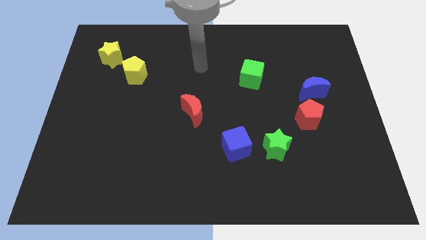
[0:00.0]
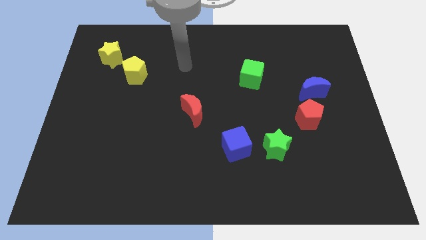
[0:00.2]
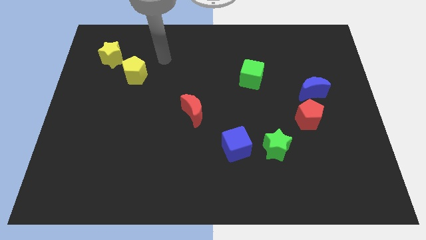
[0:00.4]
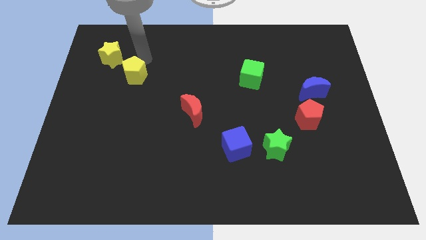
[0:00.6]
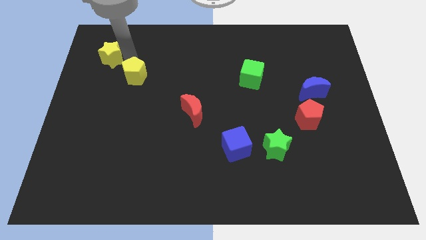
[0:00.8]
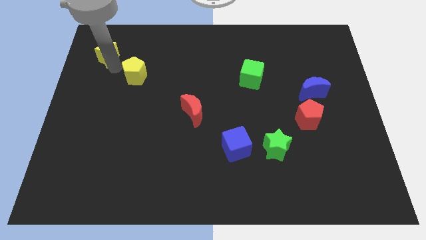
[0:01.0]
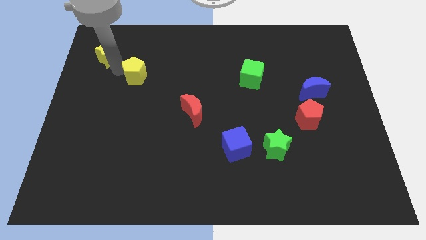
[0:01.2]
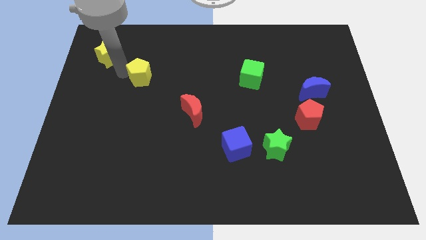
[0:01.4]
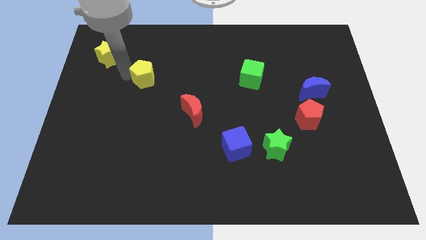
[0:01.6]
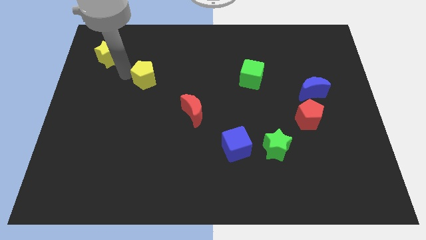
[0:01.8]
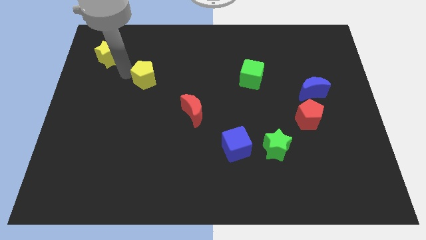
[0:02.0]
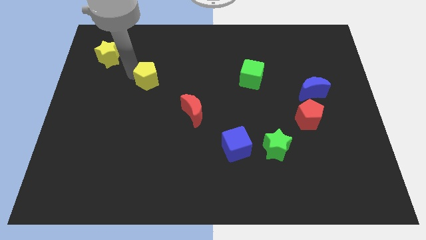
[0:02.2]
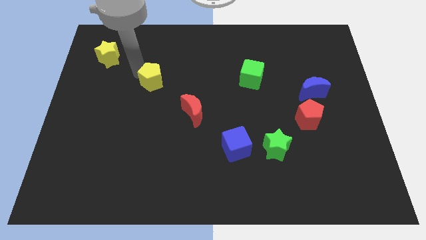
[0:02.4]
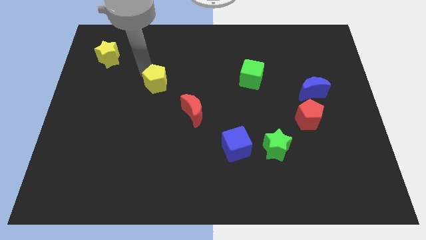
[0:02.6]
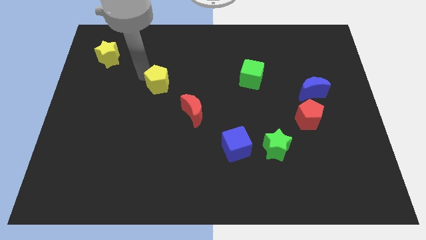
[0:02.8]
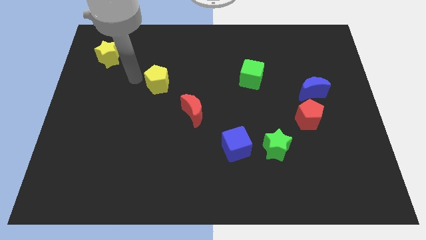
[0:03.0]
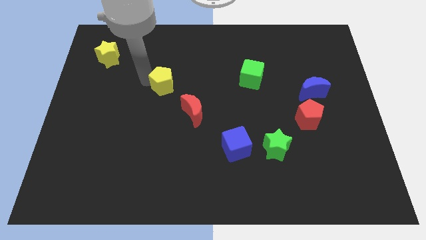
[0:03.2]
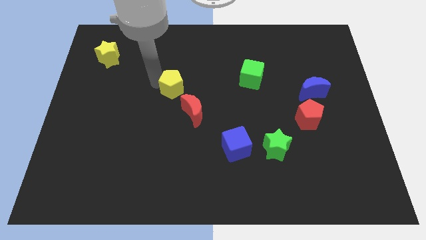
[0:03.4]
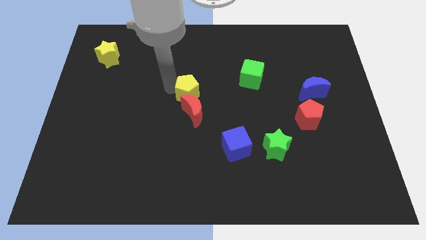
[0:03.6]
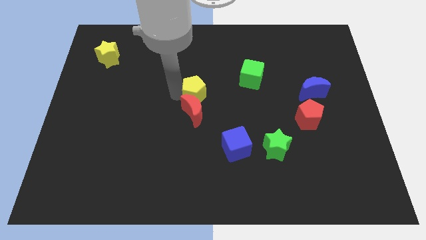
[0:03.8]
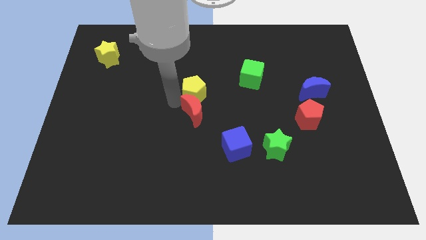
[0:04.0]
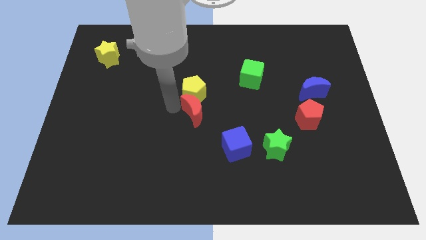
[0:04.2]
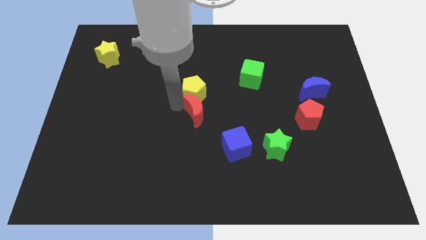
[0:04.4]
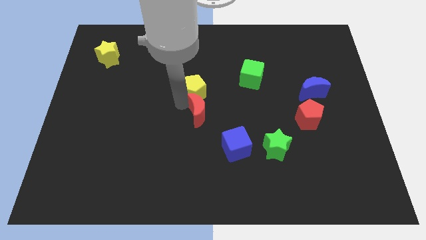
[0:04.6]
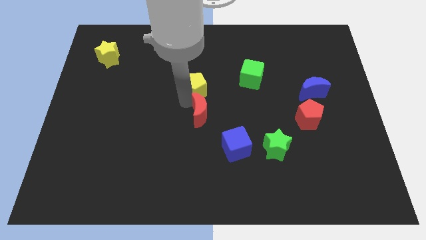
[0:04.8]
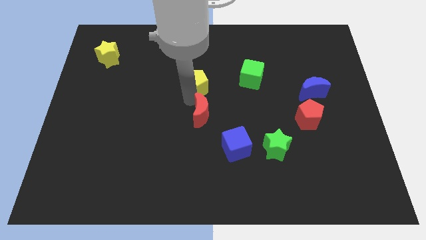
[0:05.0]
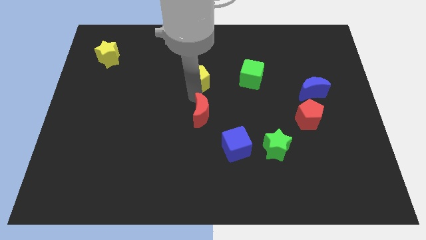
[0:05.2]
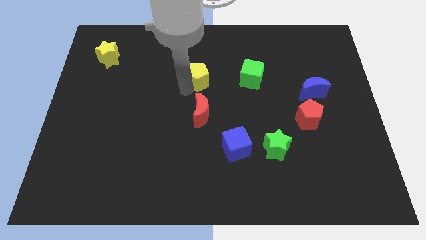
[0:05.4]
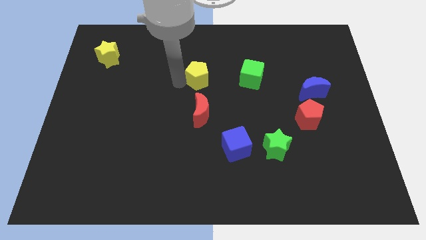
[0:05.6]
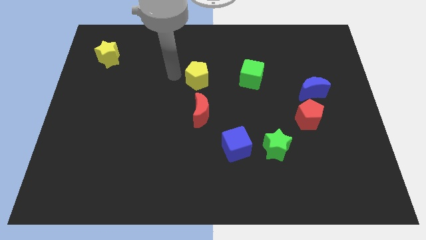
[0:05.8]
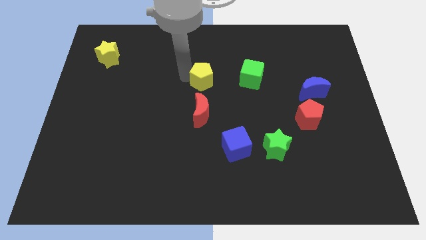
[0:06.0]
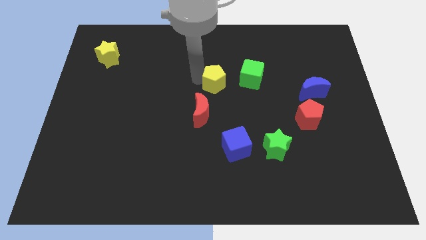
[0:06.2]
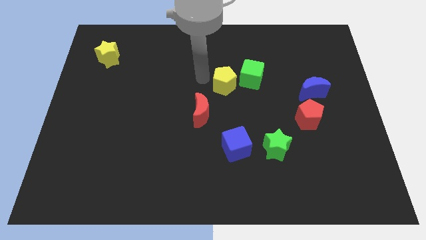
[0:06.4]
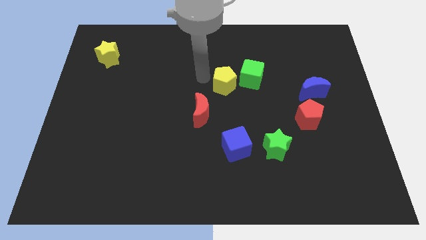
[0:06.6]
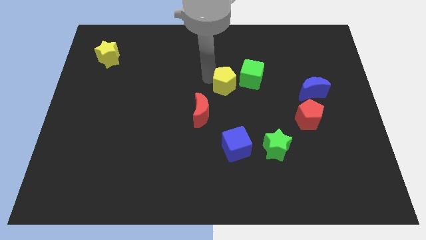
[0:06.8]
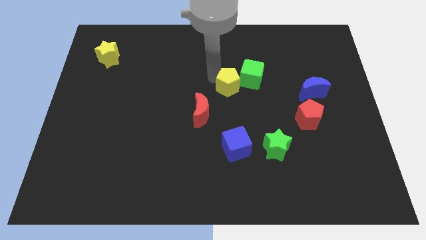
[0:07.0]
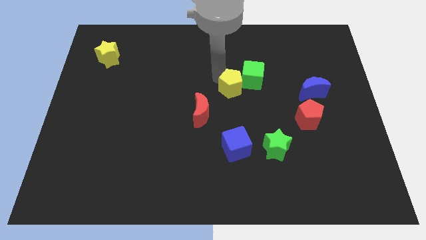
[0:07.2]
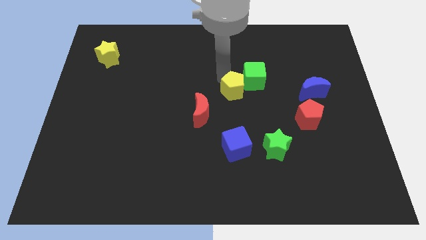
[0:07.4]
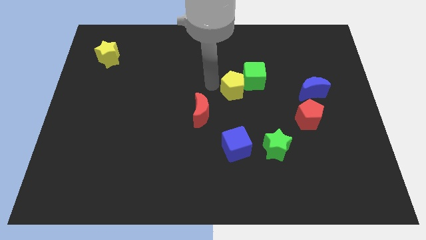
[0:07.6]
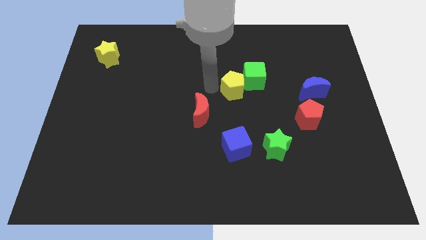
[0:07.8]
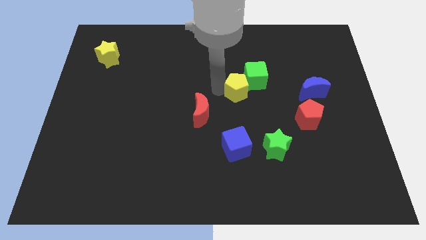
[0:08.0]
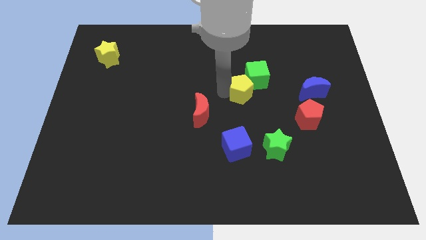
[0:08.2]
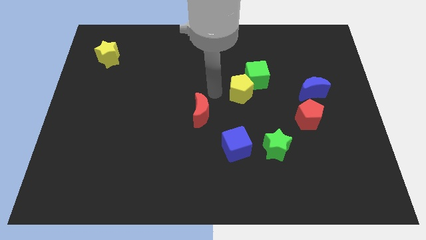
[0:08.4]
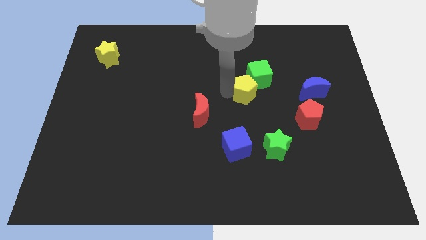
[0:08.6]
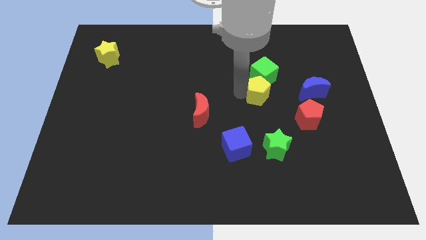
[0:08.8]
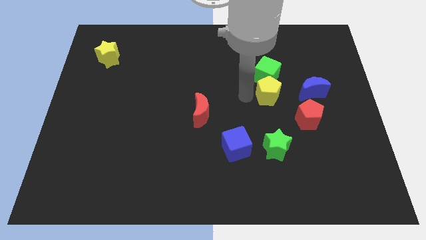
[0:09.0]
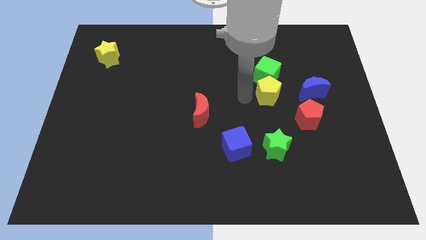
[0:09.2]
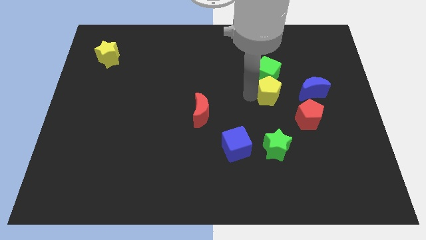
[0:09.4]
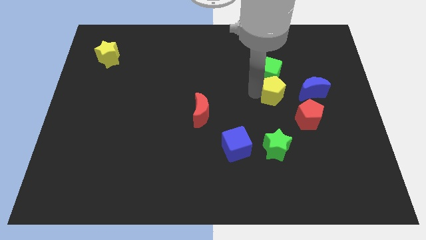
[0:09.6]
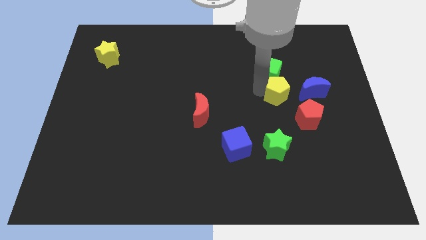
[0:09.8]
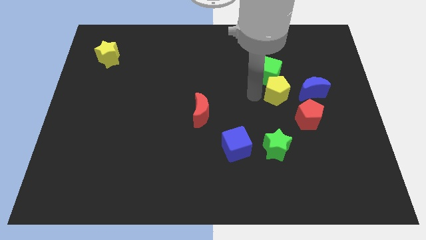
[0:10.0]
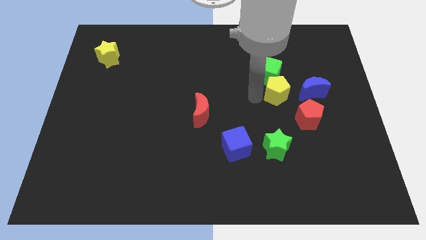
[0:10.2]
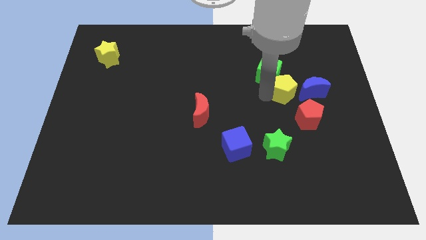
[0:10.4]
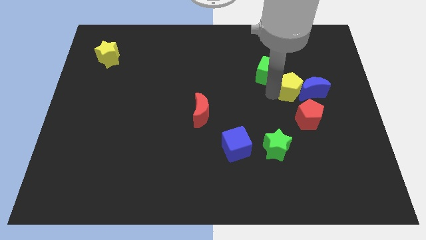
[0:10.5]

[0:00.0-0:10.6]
put the yellow pentagon towards the blue moon

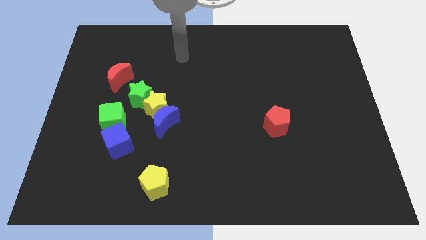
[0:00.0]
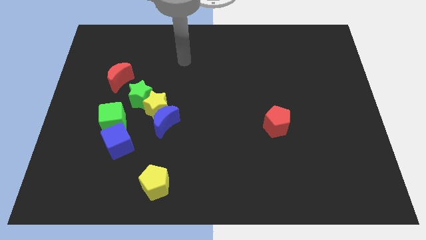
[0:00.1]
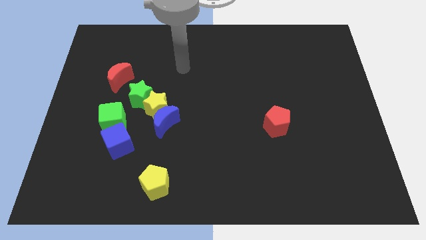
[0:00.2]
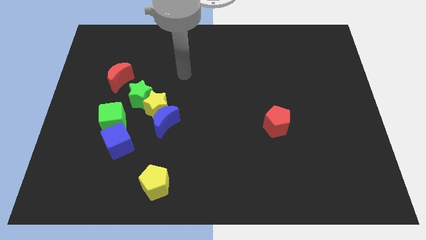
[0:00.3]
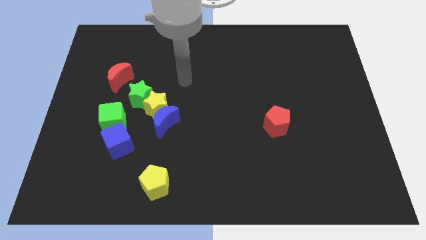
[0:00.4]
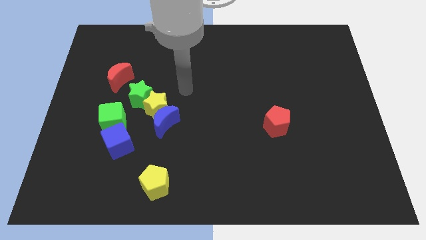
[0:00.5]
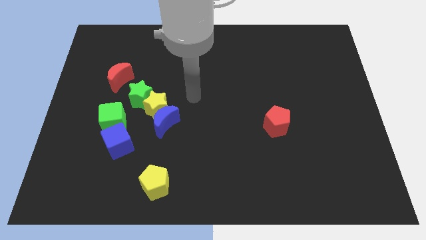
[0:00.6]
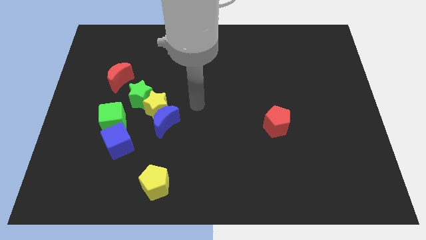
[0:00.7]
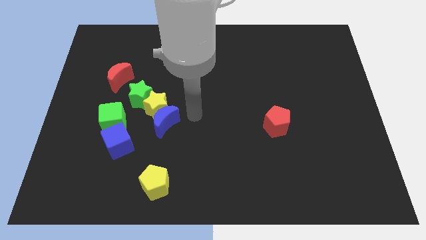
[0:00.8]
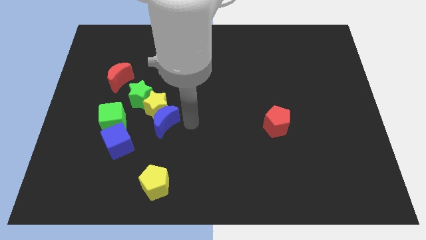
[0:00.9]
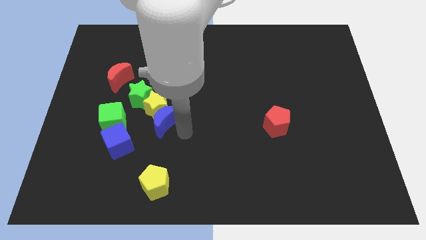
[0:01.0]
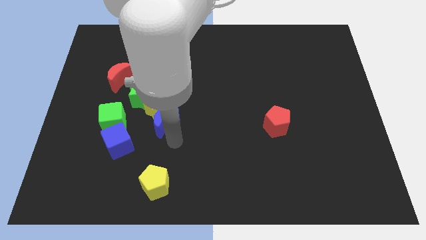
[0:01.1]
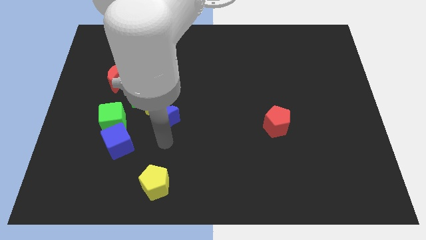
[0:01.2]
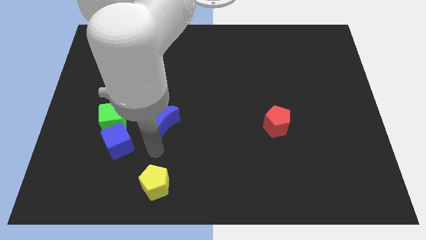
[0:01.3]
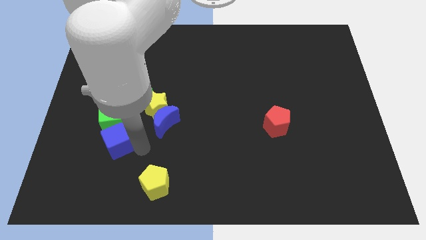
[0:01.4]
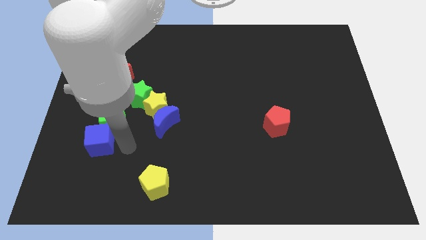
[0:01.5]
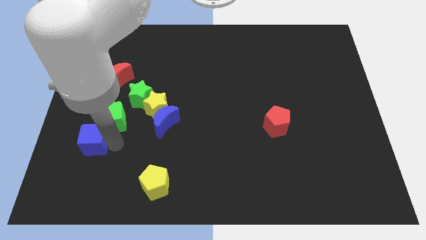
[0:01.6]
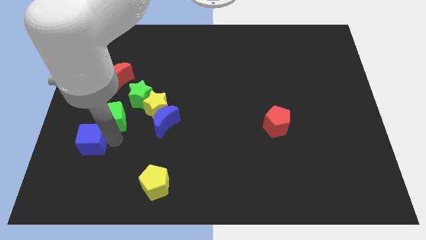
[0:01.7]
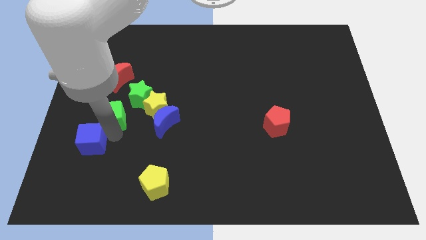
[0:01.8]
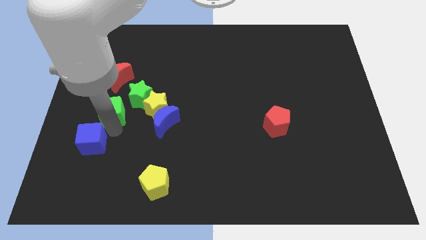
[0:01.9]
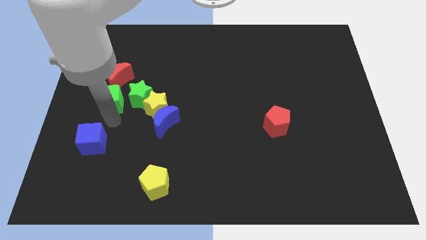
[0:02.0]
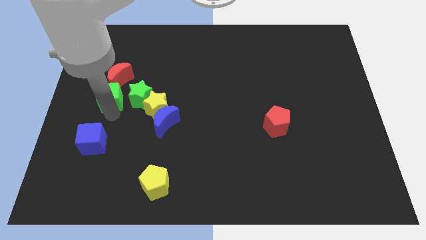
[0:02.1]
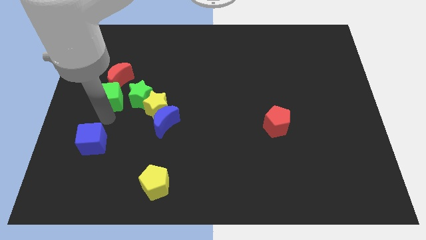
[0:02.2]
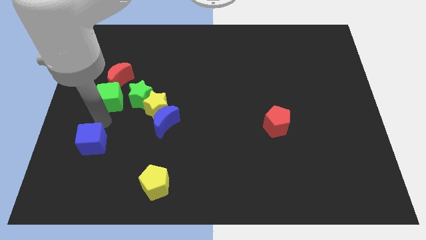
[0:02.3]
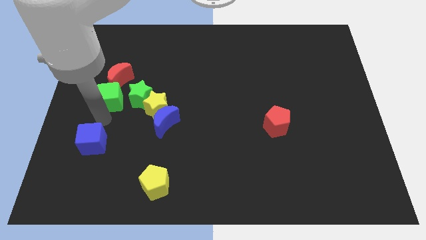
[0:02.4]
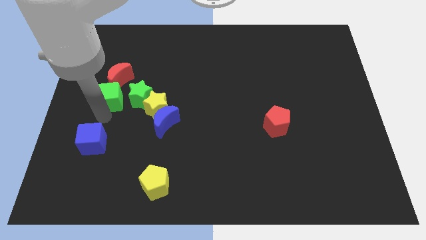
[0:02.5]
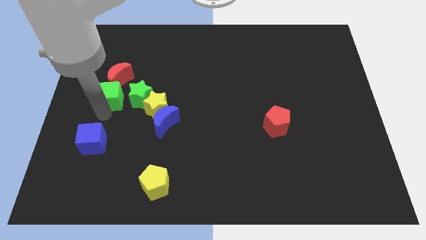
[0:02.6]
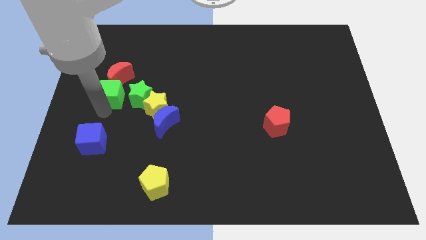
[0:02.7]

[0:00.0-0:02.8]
put the green cube next to the red moon
